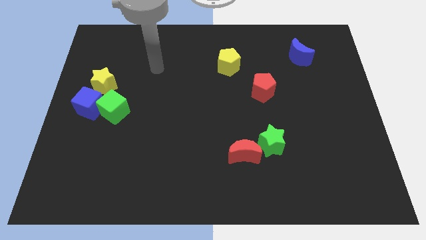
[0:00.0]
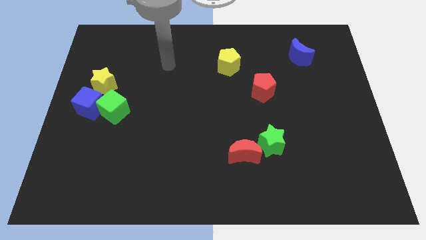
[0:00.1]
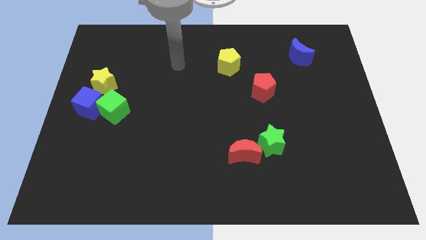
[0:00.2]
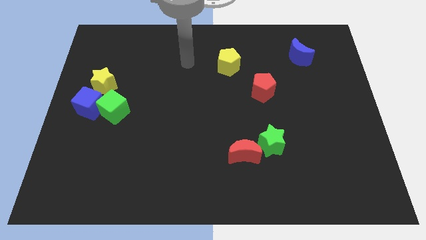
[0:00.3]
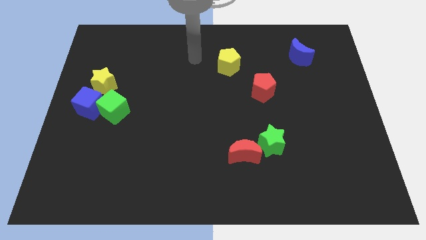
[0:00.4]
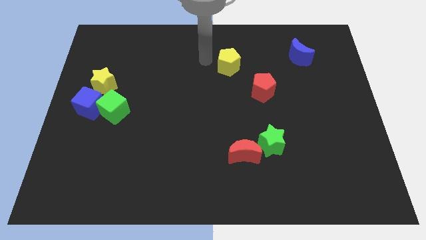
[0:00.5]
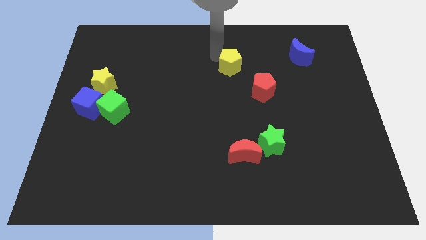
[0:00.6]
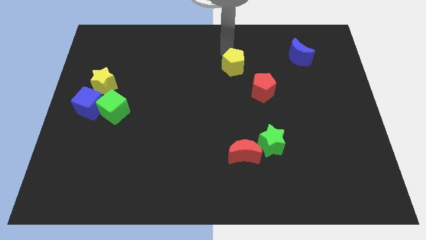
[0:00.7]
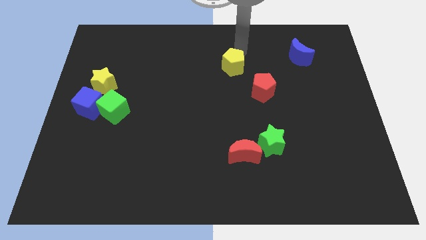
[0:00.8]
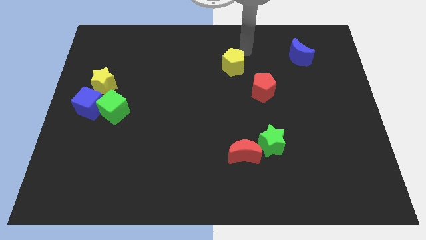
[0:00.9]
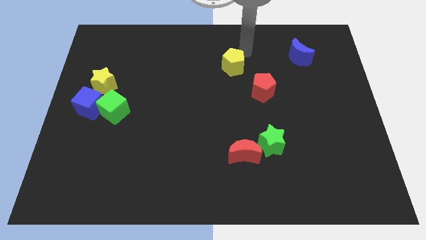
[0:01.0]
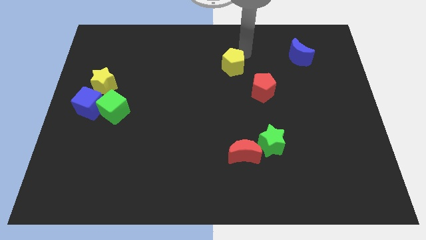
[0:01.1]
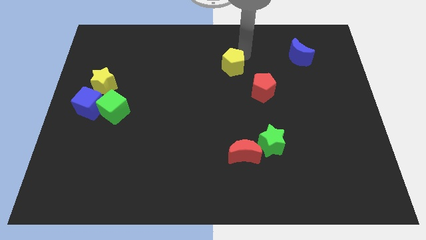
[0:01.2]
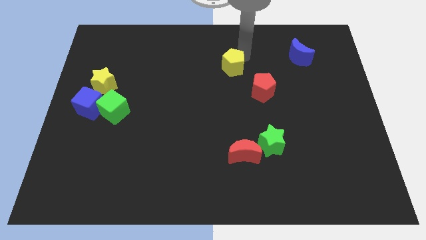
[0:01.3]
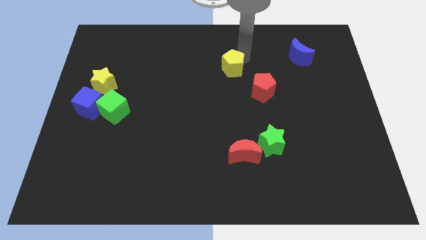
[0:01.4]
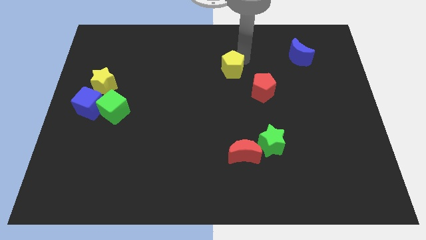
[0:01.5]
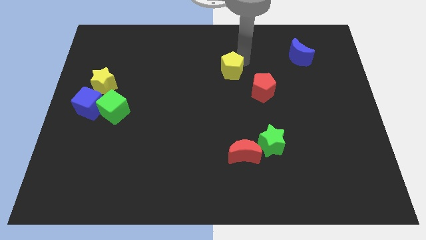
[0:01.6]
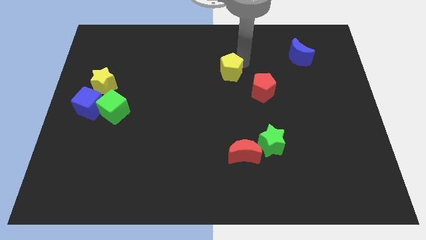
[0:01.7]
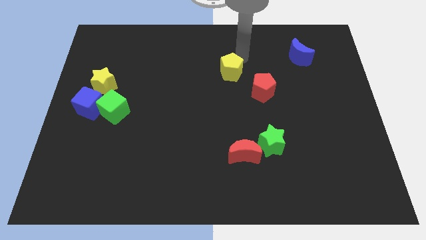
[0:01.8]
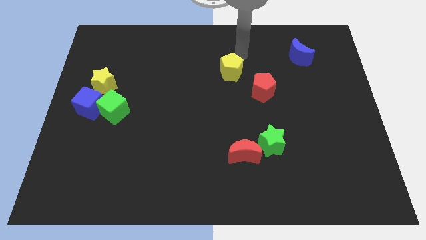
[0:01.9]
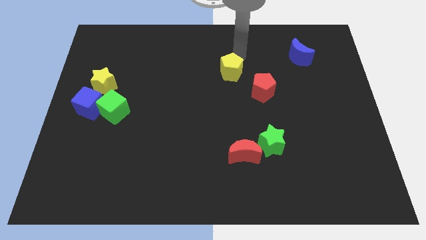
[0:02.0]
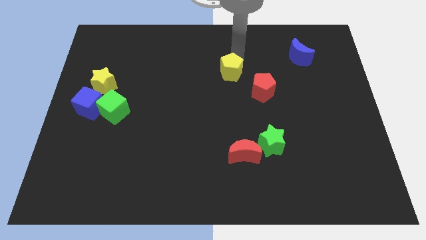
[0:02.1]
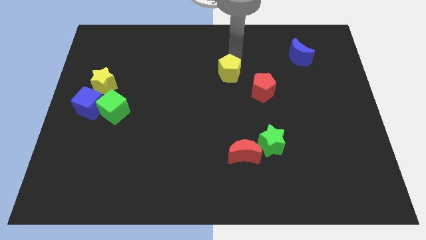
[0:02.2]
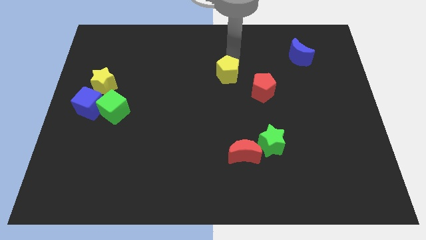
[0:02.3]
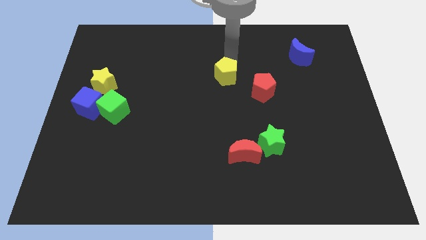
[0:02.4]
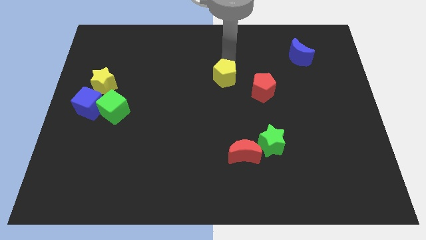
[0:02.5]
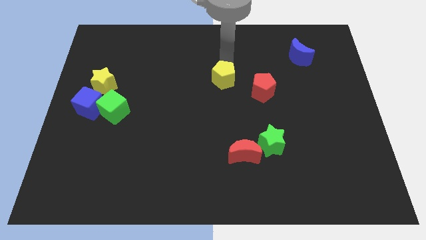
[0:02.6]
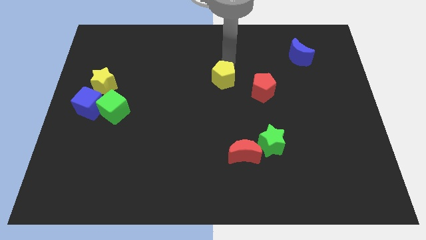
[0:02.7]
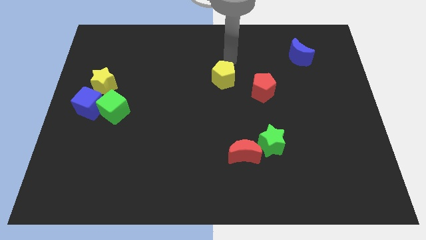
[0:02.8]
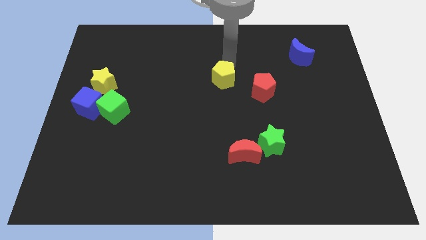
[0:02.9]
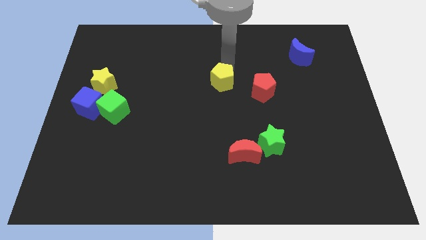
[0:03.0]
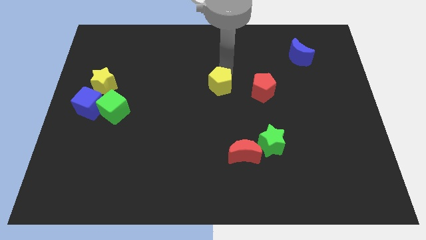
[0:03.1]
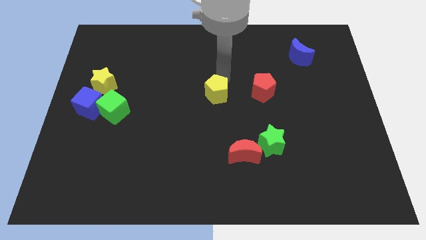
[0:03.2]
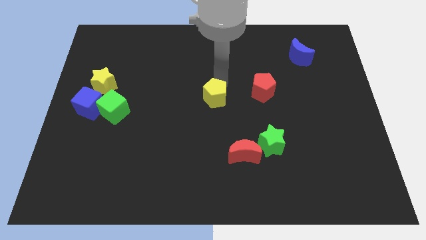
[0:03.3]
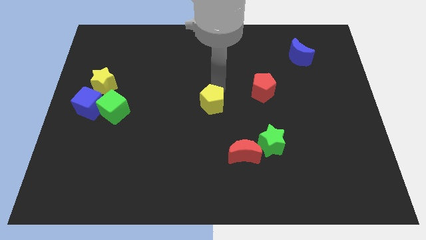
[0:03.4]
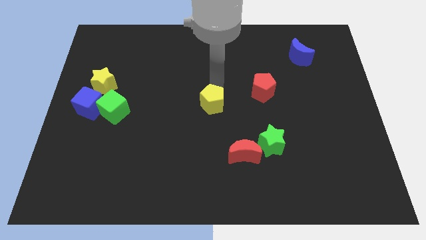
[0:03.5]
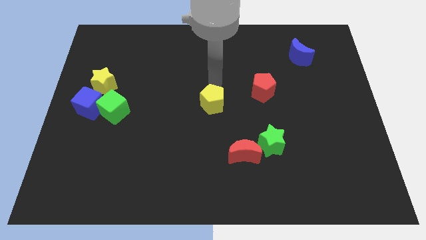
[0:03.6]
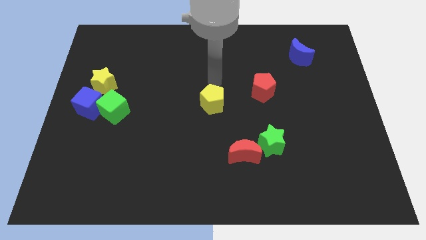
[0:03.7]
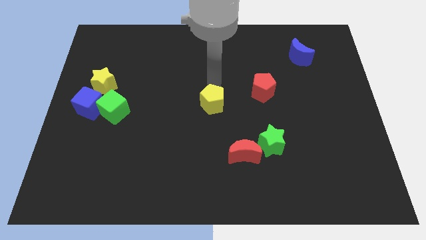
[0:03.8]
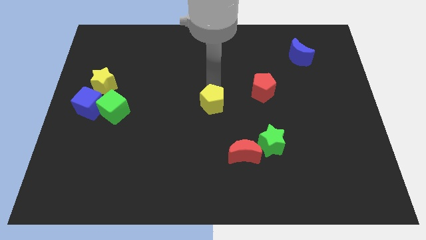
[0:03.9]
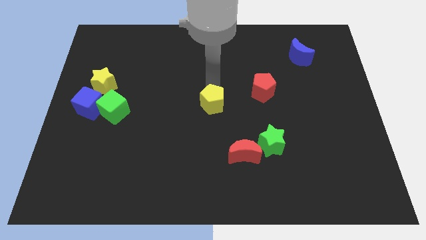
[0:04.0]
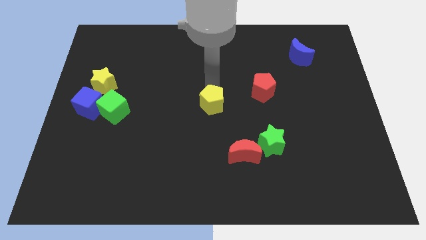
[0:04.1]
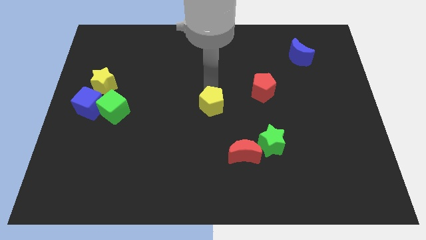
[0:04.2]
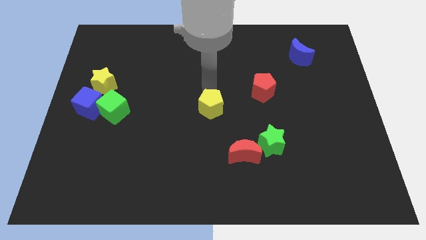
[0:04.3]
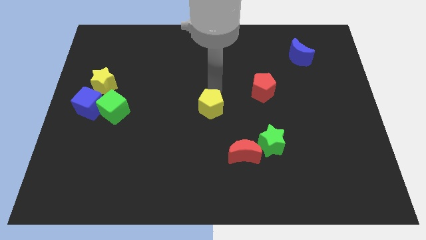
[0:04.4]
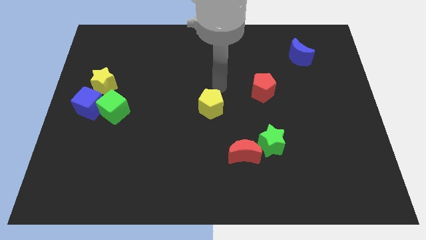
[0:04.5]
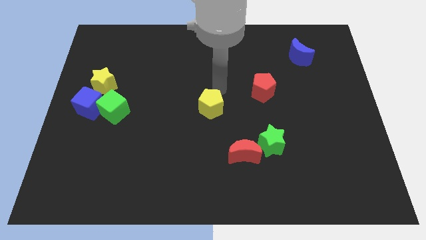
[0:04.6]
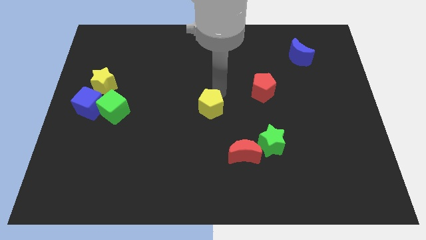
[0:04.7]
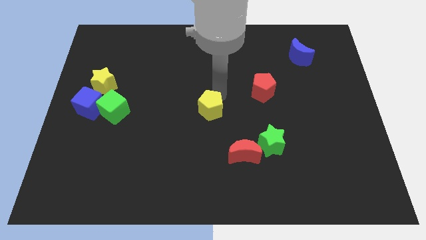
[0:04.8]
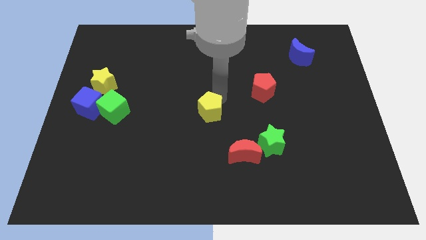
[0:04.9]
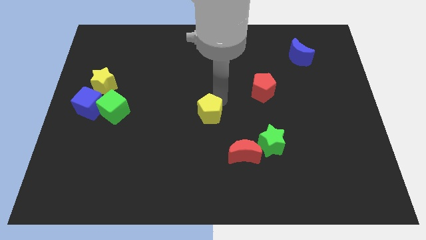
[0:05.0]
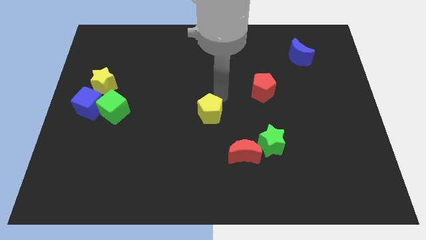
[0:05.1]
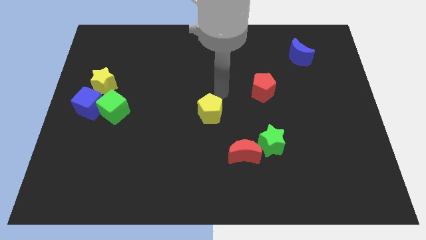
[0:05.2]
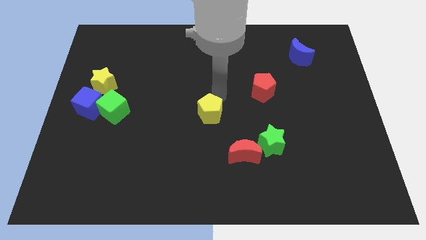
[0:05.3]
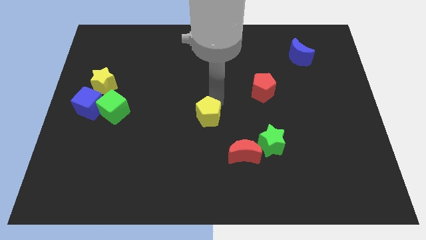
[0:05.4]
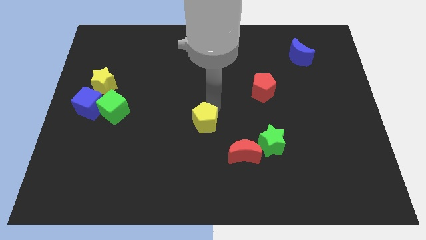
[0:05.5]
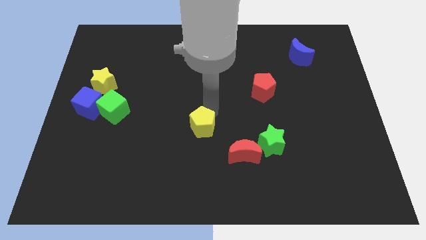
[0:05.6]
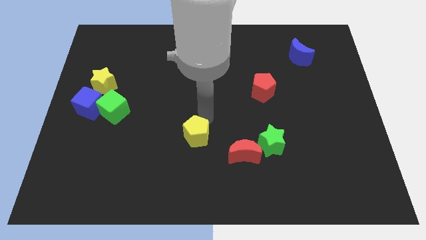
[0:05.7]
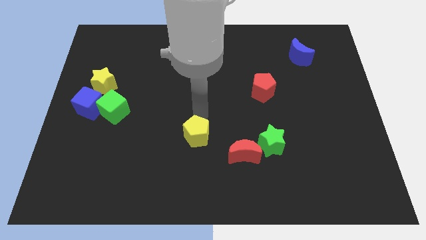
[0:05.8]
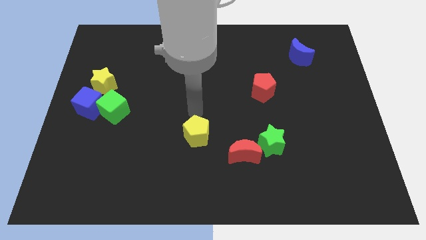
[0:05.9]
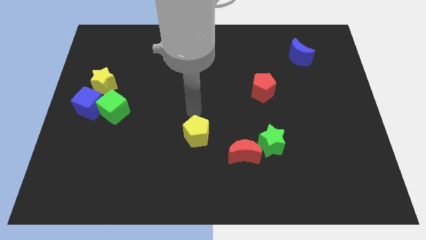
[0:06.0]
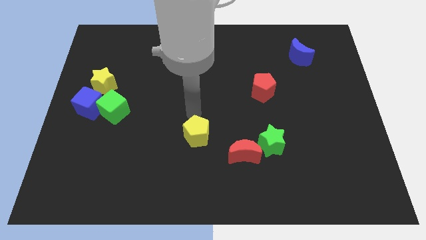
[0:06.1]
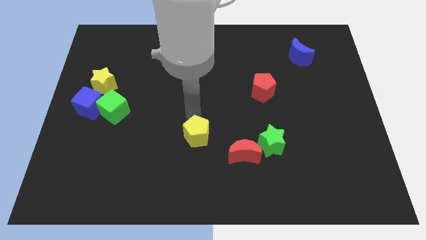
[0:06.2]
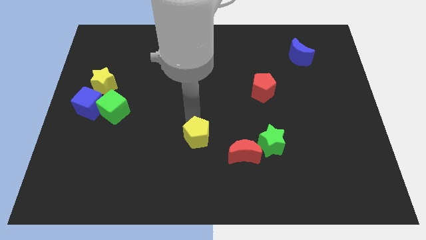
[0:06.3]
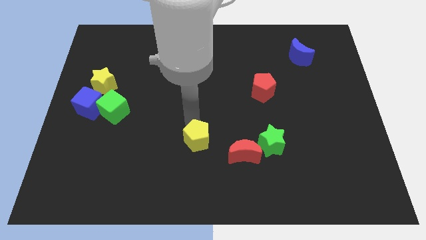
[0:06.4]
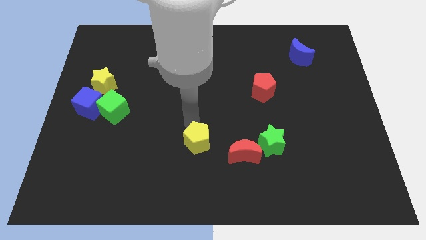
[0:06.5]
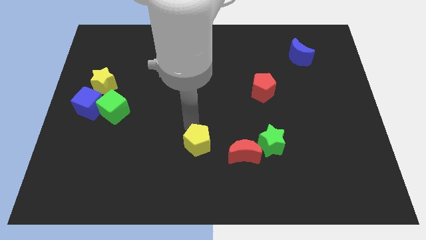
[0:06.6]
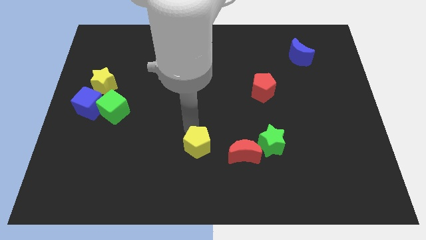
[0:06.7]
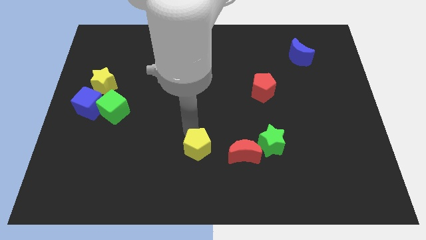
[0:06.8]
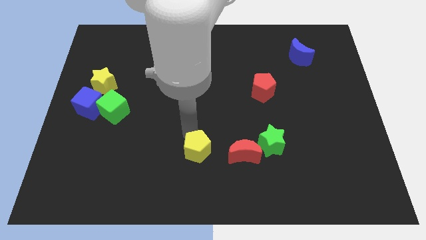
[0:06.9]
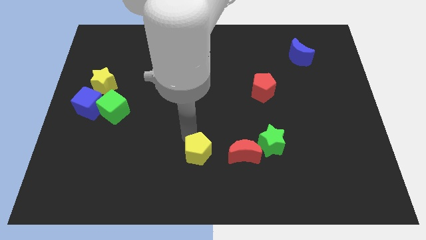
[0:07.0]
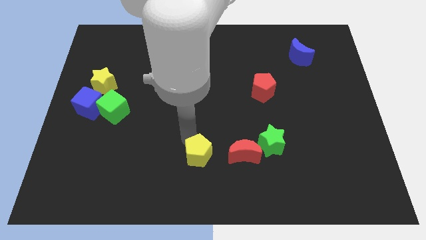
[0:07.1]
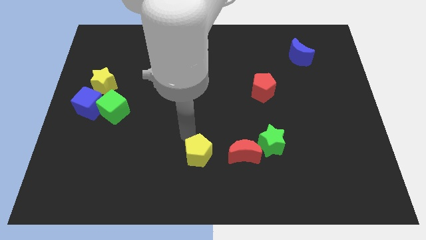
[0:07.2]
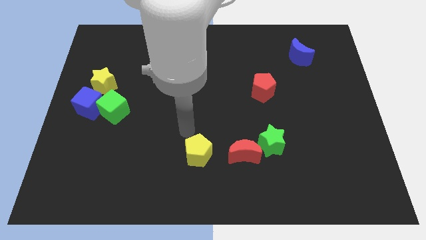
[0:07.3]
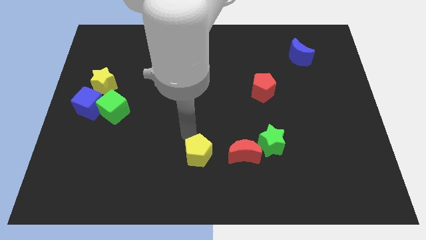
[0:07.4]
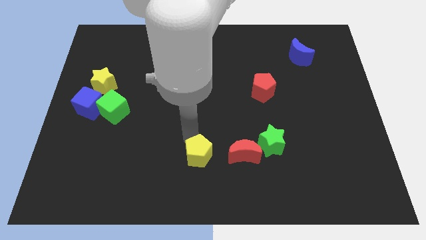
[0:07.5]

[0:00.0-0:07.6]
push the yellow pentagon to the bottom side
